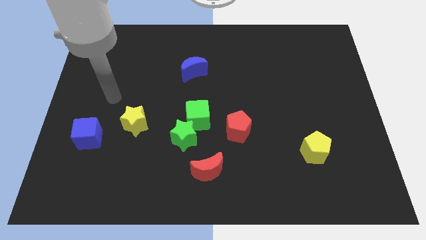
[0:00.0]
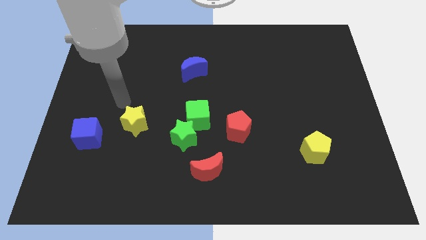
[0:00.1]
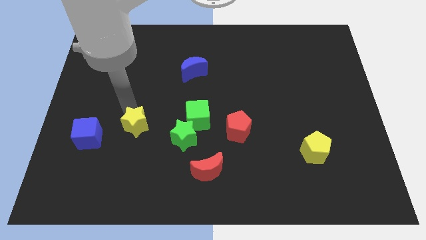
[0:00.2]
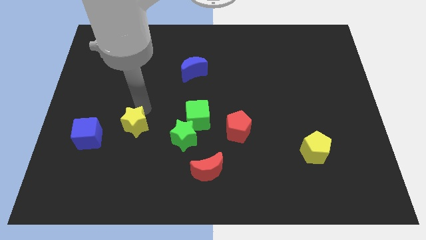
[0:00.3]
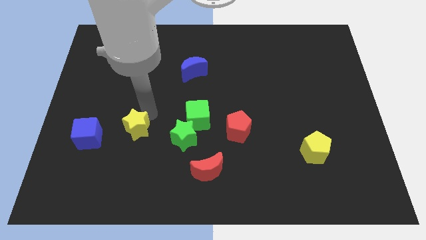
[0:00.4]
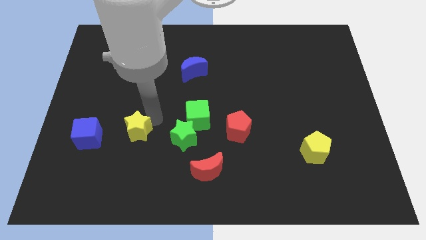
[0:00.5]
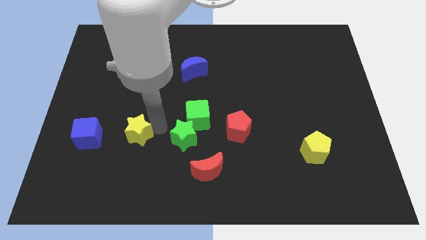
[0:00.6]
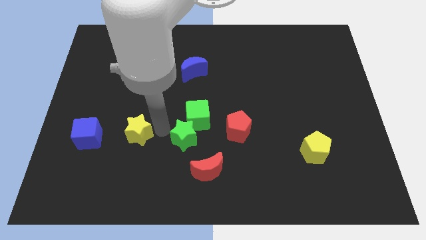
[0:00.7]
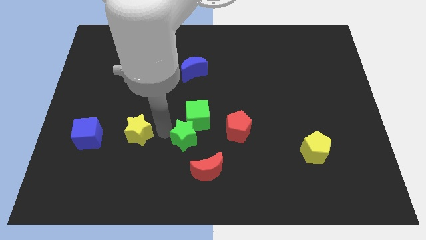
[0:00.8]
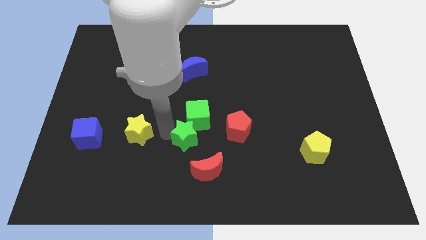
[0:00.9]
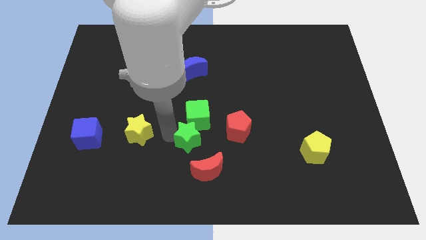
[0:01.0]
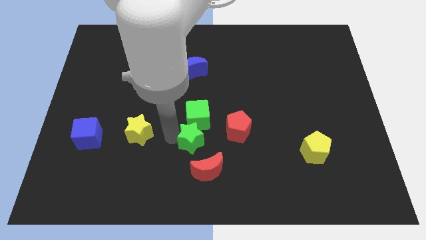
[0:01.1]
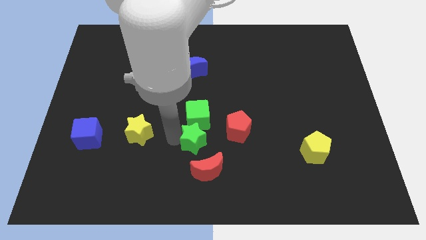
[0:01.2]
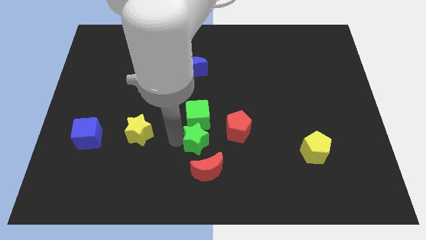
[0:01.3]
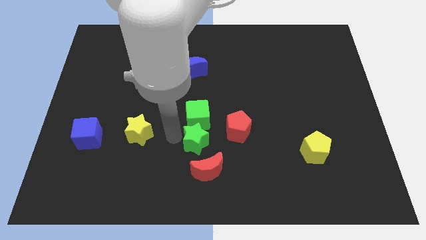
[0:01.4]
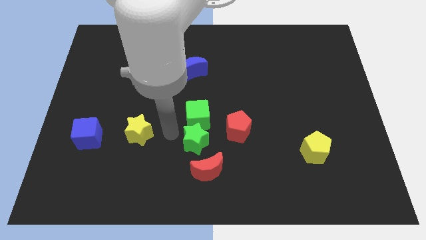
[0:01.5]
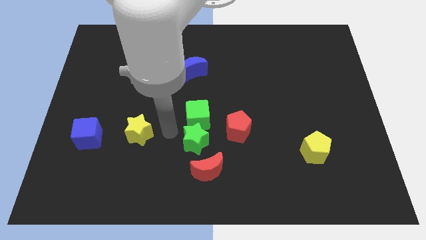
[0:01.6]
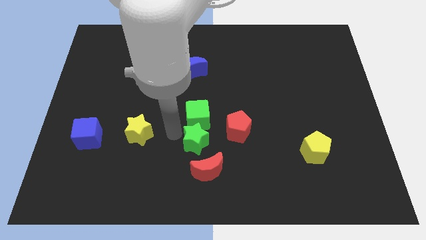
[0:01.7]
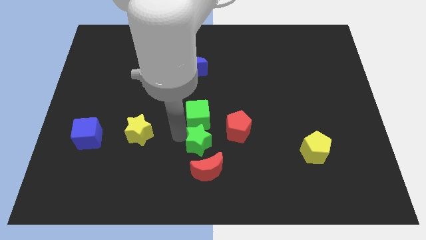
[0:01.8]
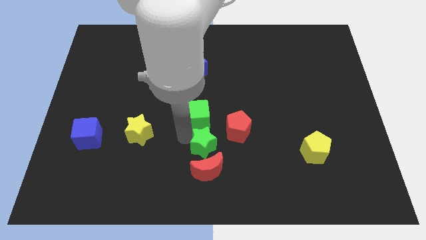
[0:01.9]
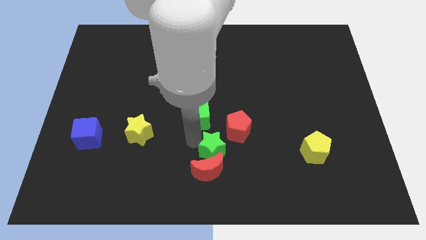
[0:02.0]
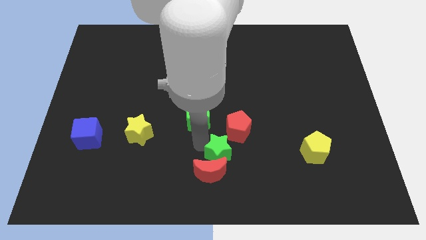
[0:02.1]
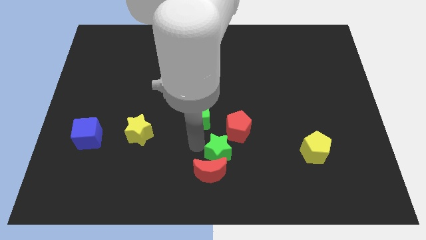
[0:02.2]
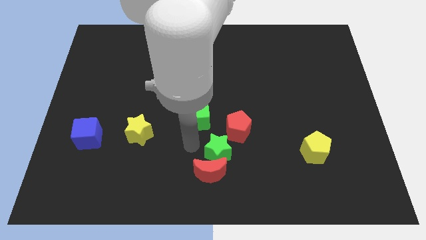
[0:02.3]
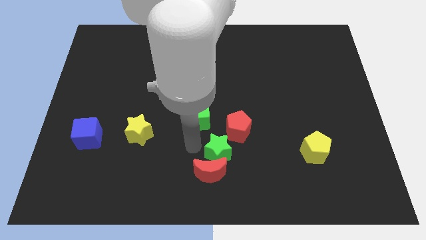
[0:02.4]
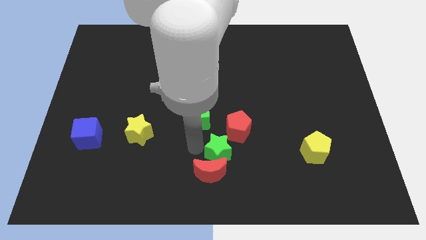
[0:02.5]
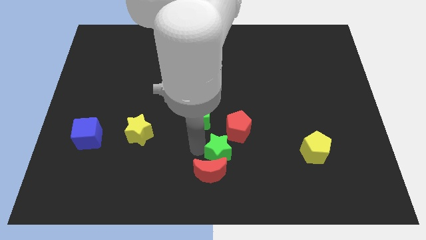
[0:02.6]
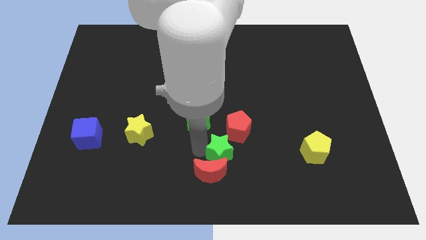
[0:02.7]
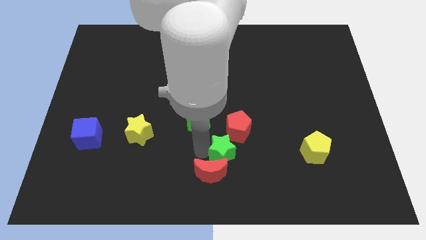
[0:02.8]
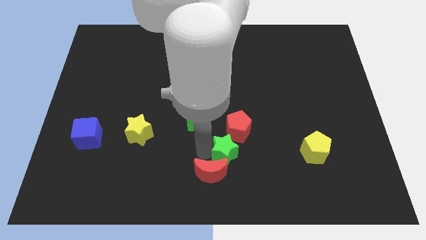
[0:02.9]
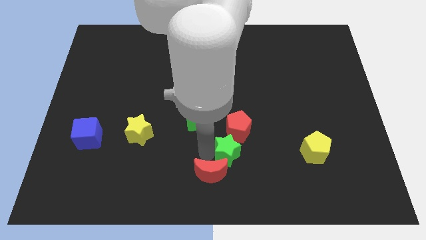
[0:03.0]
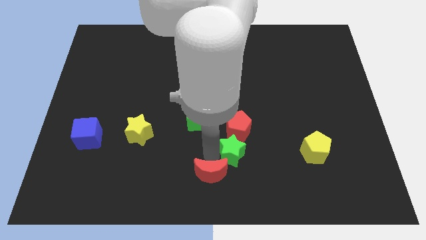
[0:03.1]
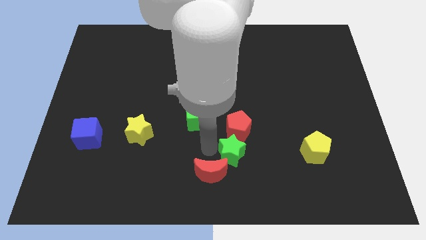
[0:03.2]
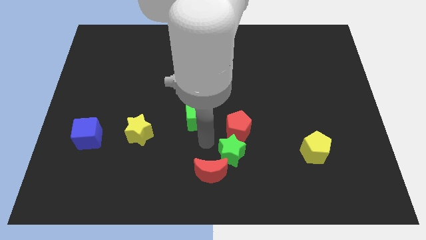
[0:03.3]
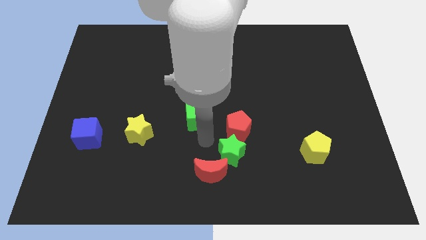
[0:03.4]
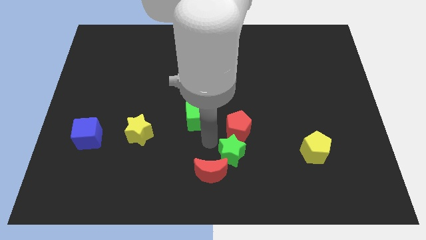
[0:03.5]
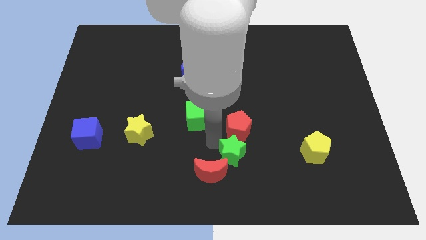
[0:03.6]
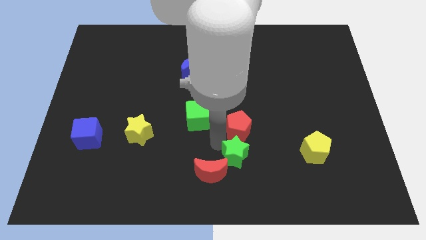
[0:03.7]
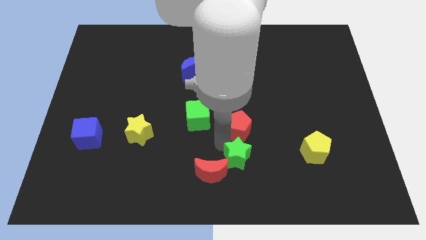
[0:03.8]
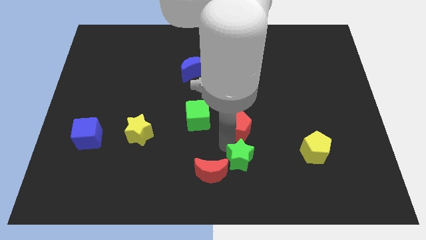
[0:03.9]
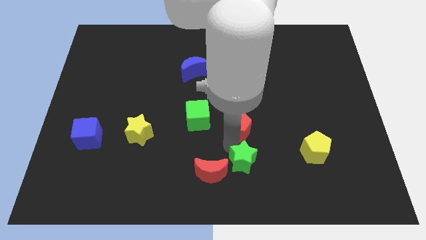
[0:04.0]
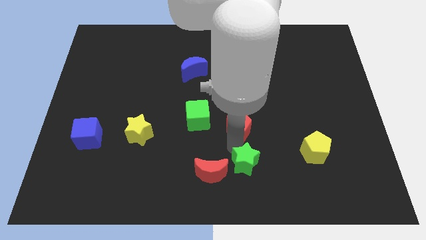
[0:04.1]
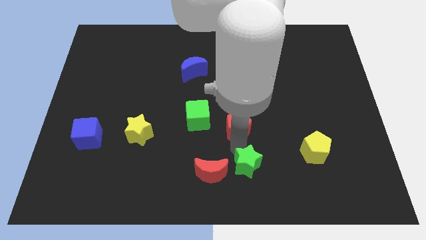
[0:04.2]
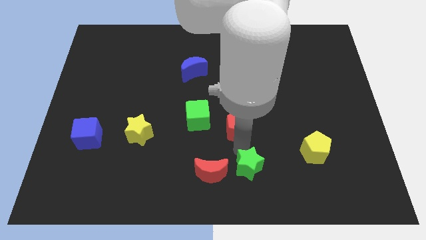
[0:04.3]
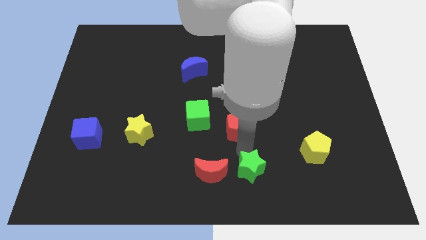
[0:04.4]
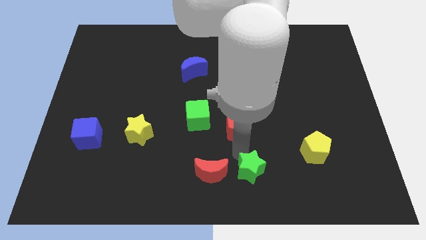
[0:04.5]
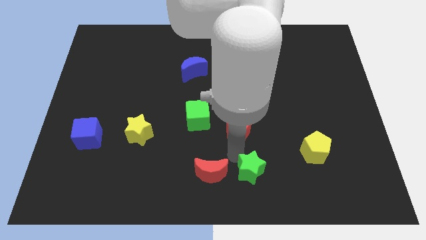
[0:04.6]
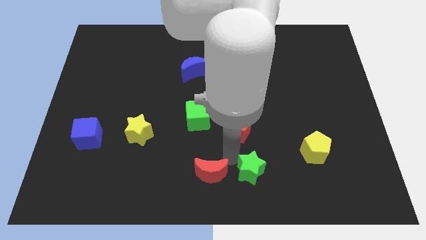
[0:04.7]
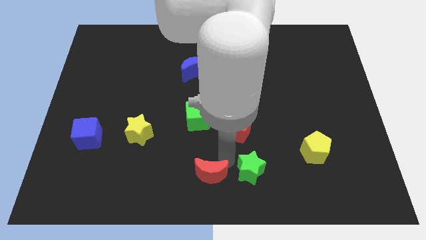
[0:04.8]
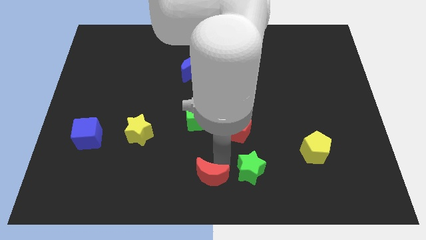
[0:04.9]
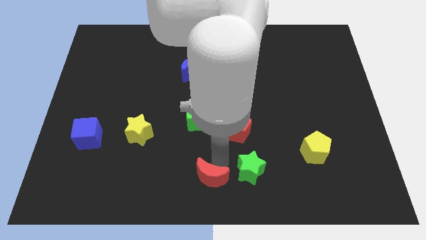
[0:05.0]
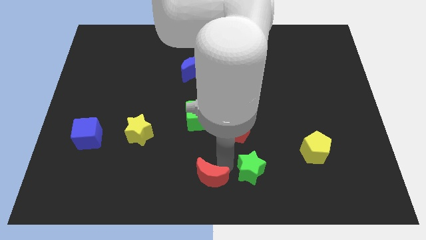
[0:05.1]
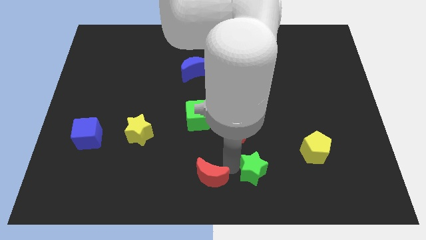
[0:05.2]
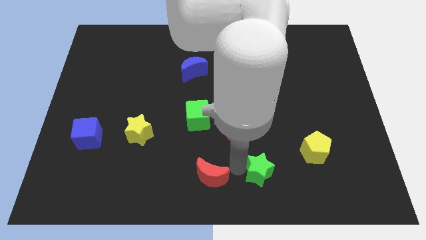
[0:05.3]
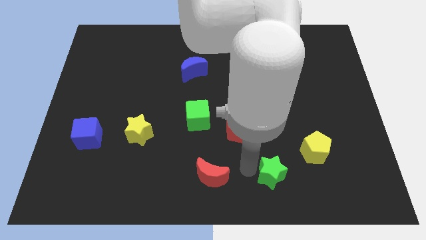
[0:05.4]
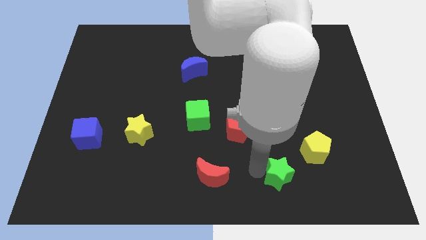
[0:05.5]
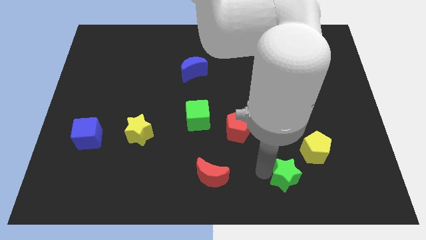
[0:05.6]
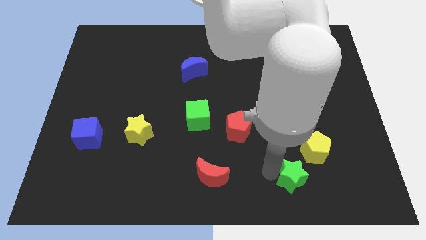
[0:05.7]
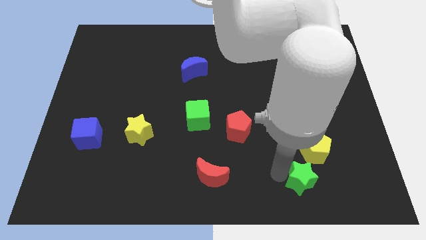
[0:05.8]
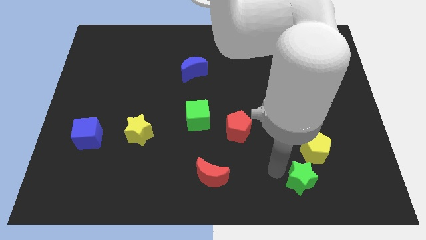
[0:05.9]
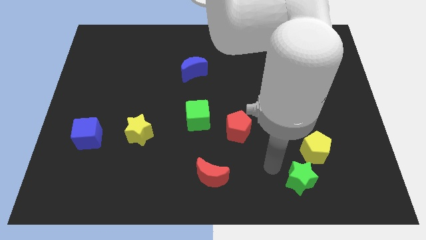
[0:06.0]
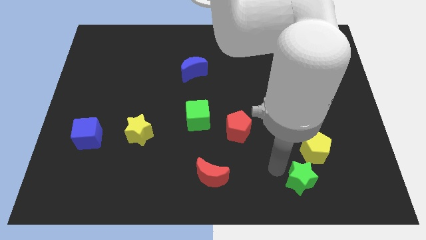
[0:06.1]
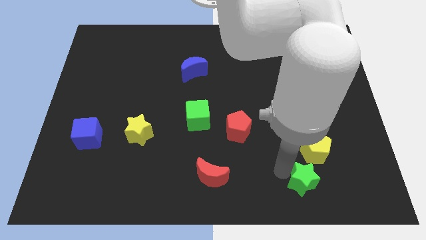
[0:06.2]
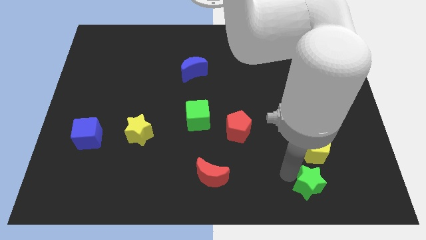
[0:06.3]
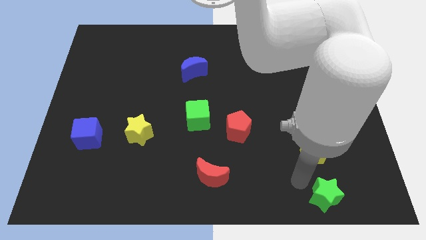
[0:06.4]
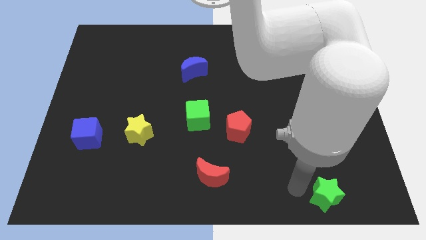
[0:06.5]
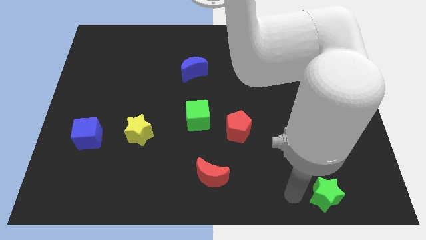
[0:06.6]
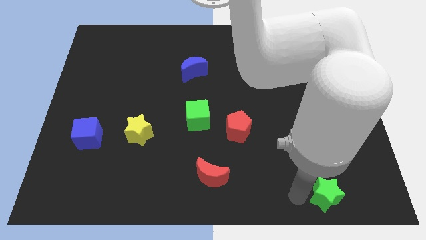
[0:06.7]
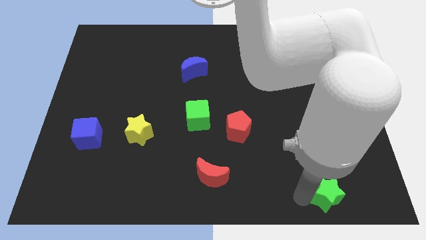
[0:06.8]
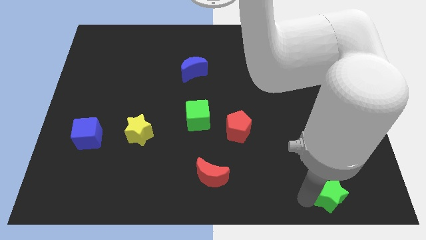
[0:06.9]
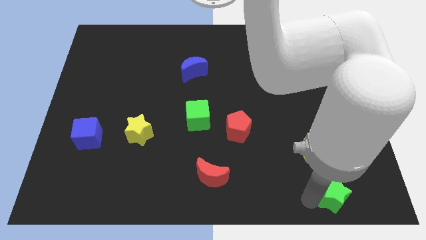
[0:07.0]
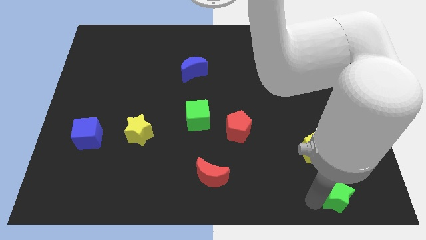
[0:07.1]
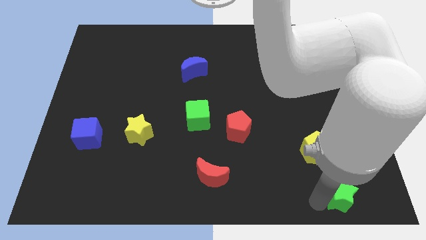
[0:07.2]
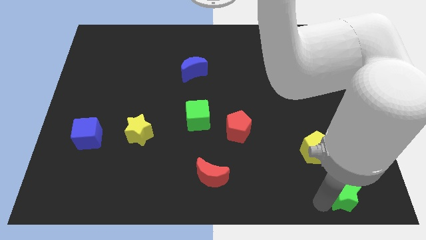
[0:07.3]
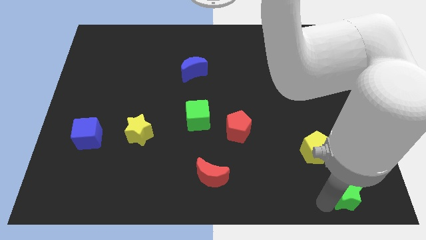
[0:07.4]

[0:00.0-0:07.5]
slide the green star to the bottom right

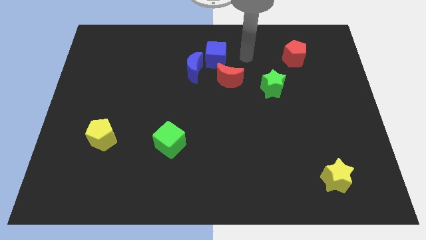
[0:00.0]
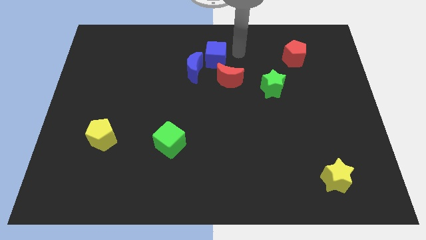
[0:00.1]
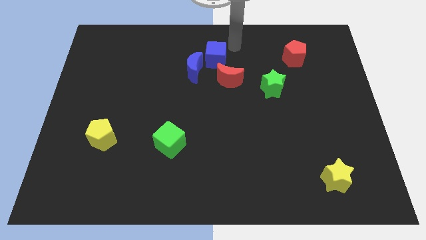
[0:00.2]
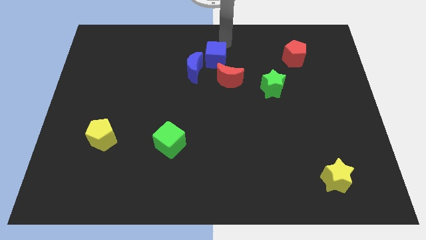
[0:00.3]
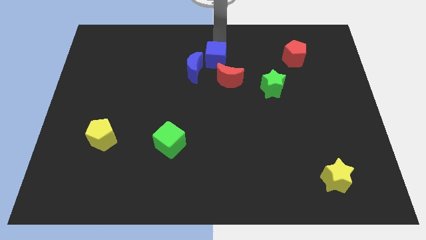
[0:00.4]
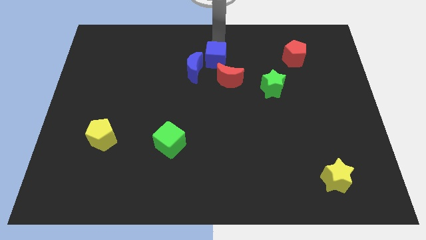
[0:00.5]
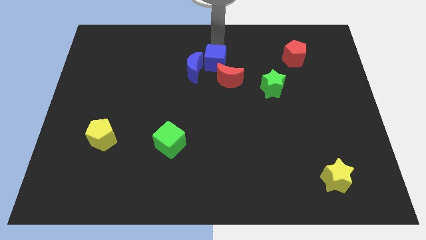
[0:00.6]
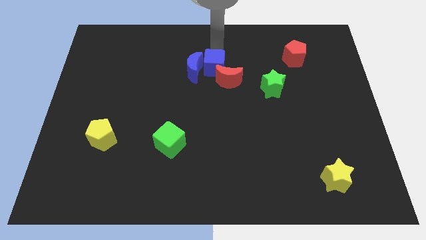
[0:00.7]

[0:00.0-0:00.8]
put the blue cube to the middle
